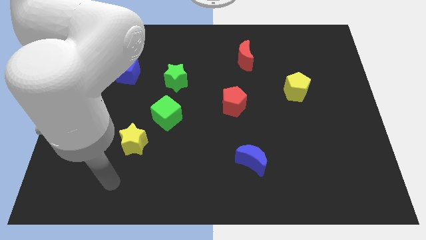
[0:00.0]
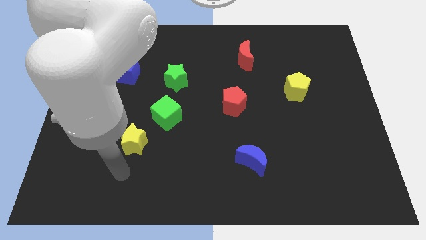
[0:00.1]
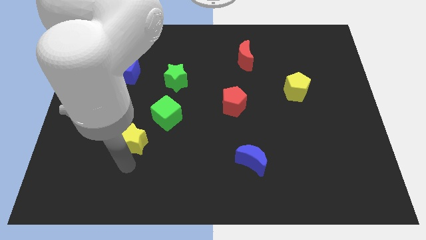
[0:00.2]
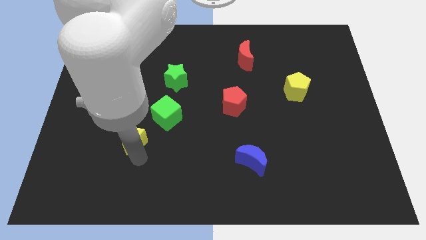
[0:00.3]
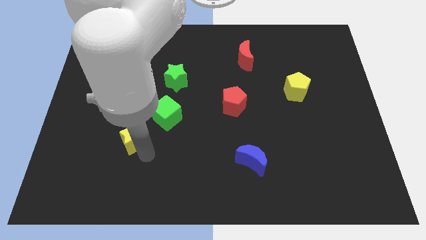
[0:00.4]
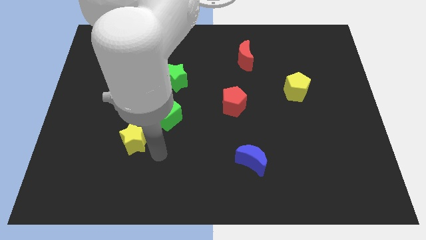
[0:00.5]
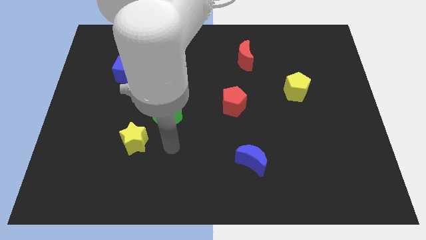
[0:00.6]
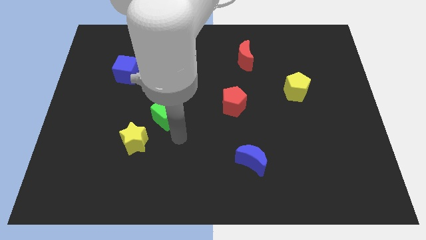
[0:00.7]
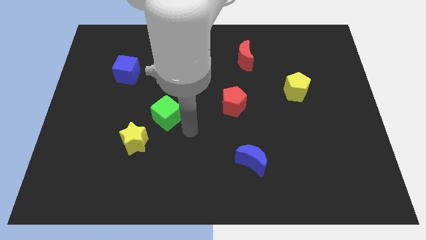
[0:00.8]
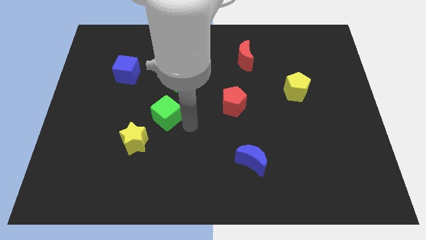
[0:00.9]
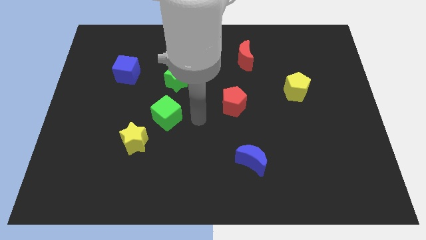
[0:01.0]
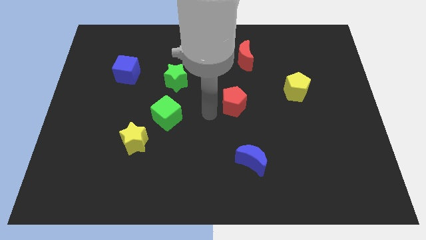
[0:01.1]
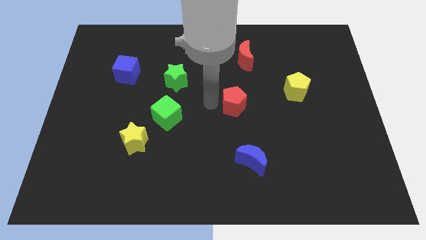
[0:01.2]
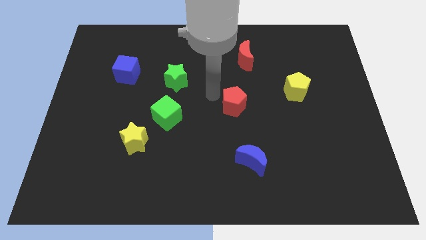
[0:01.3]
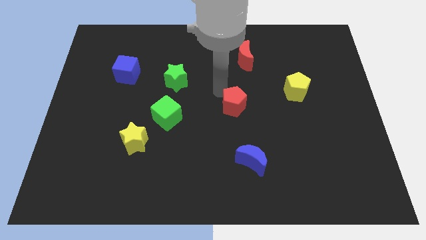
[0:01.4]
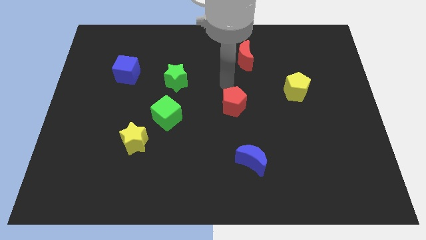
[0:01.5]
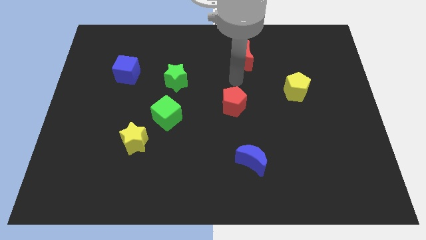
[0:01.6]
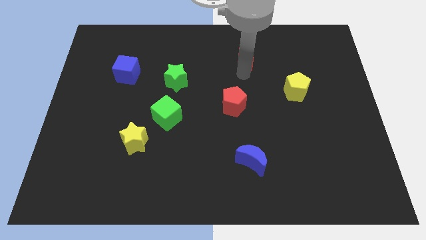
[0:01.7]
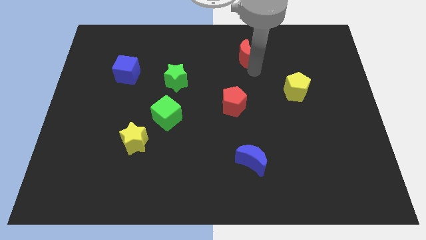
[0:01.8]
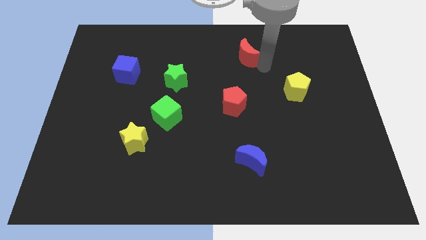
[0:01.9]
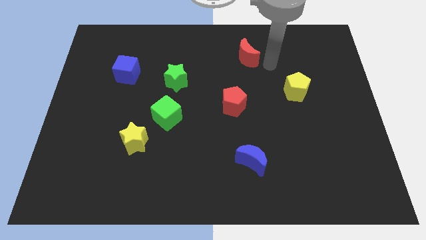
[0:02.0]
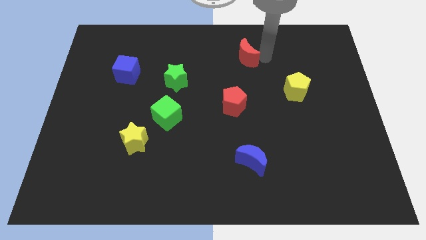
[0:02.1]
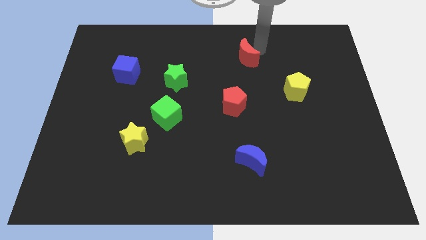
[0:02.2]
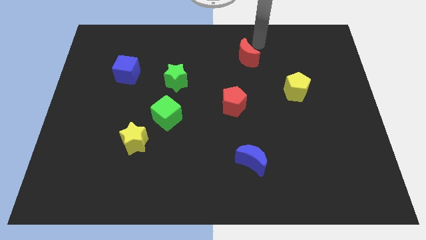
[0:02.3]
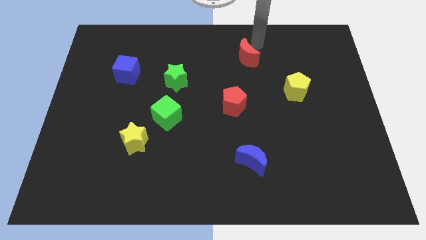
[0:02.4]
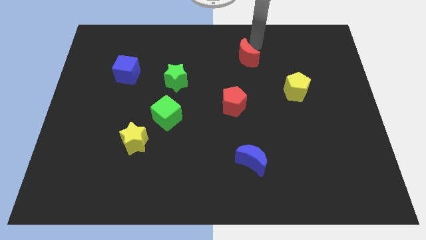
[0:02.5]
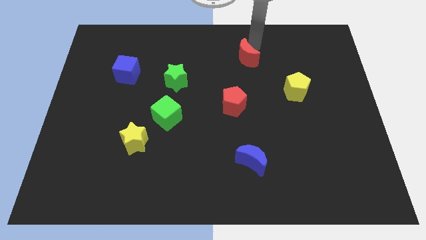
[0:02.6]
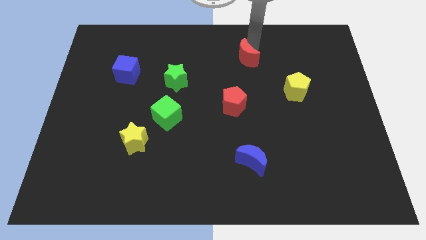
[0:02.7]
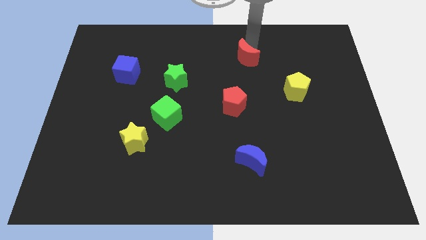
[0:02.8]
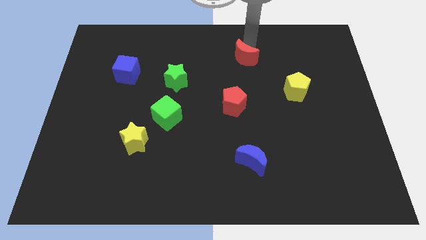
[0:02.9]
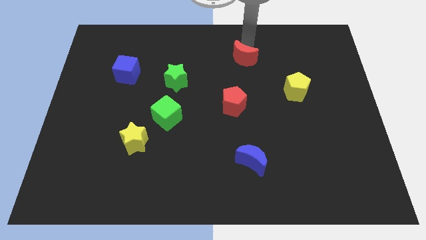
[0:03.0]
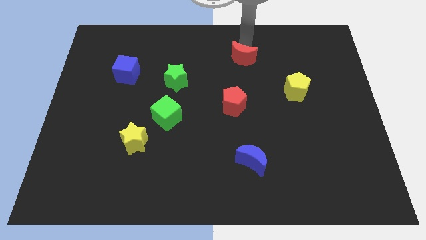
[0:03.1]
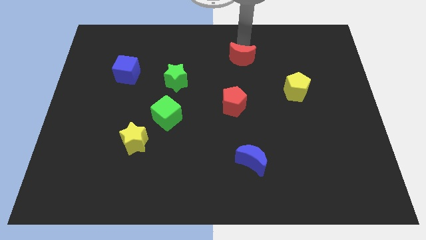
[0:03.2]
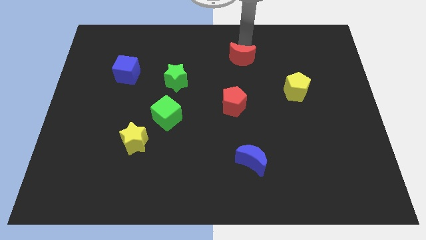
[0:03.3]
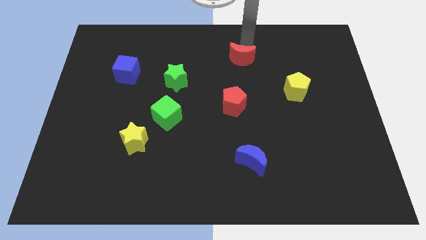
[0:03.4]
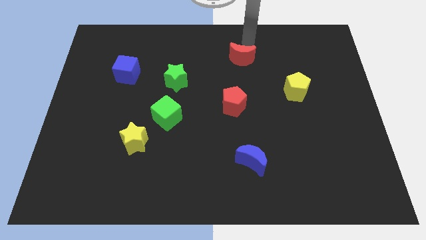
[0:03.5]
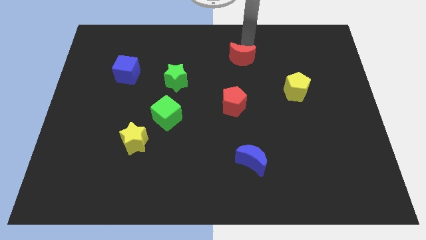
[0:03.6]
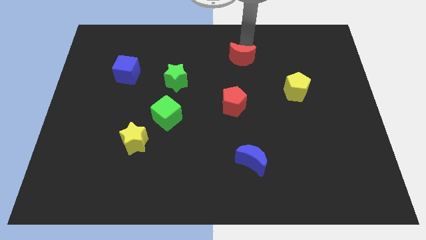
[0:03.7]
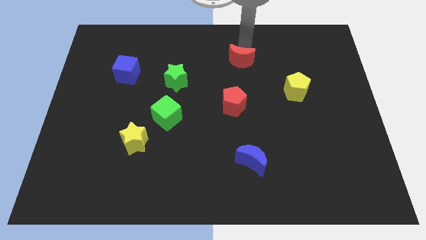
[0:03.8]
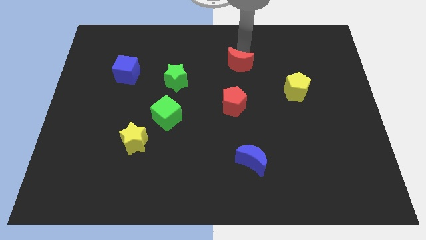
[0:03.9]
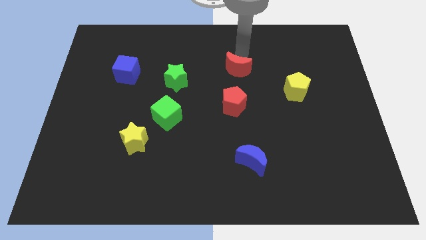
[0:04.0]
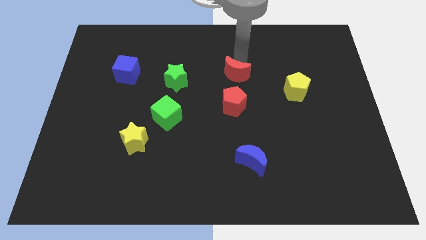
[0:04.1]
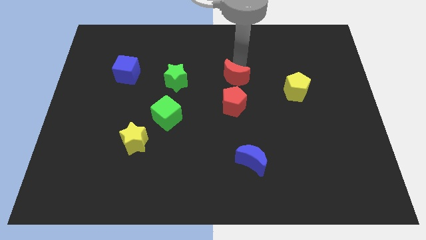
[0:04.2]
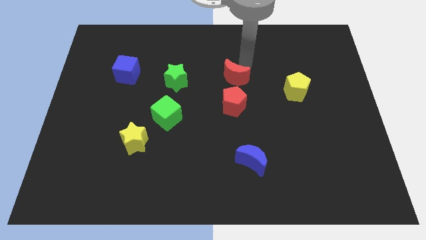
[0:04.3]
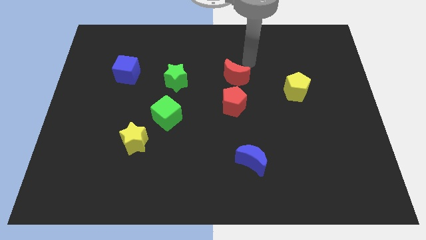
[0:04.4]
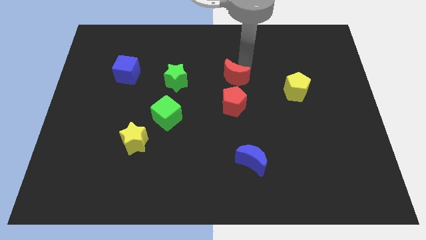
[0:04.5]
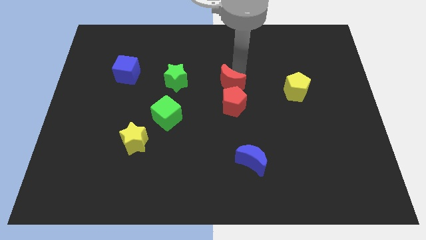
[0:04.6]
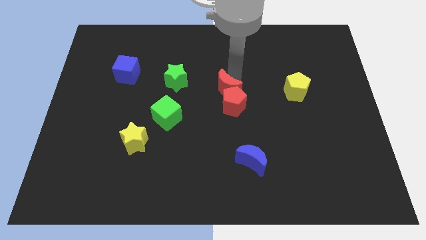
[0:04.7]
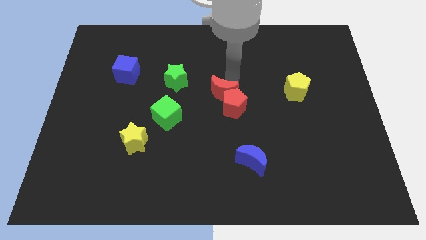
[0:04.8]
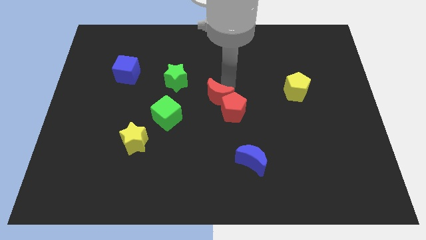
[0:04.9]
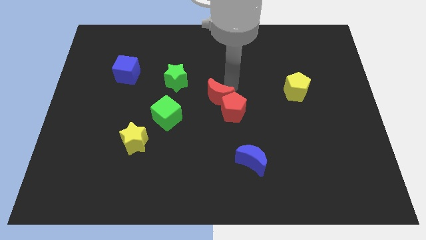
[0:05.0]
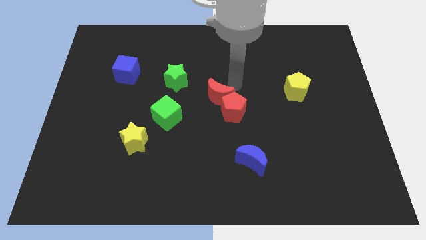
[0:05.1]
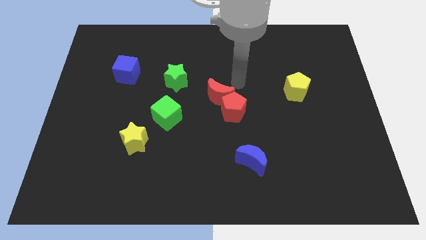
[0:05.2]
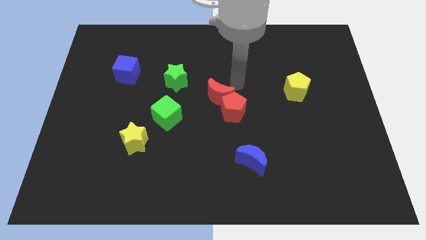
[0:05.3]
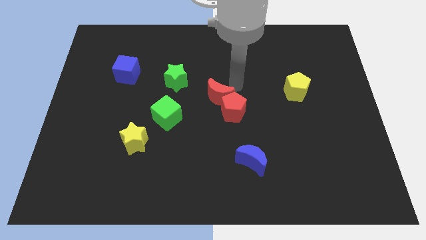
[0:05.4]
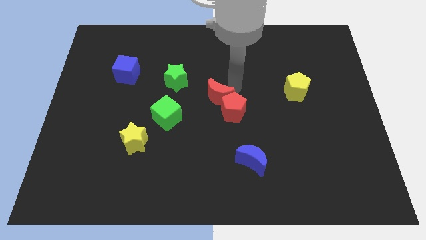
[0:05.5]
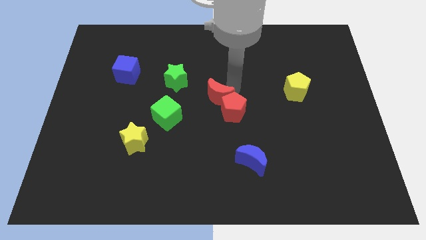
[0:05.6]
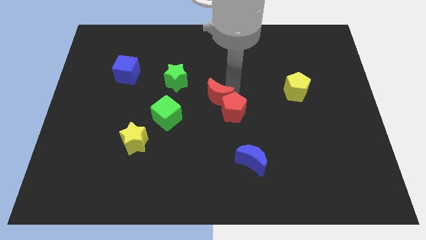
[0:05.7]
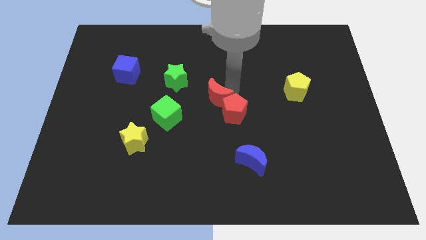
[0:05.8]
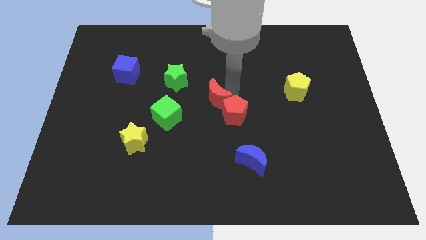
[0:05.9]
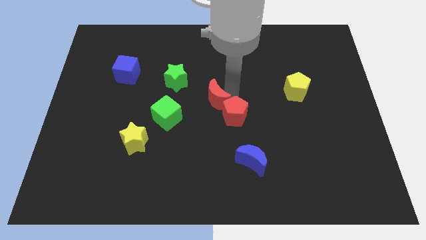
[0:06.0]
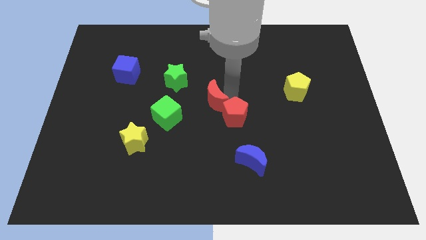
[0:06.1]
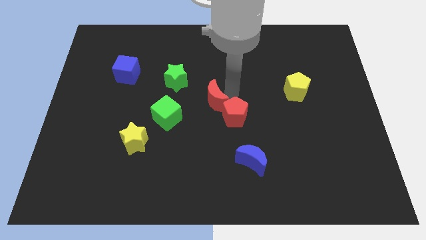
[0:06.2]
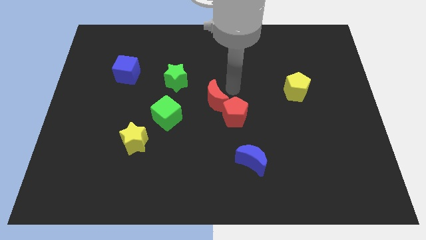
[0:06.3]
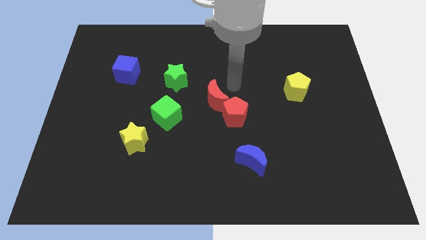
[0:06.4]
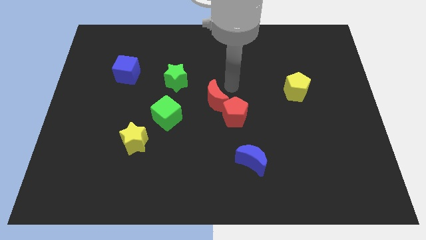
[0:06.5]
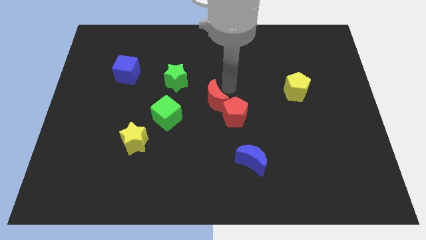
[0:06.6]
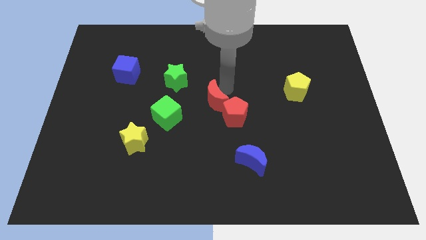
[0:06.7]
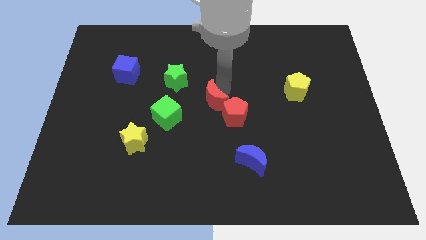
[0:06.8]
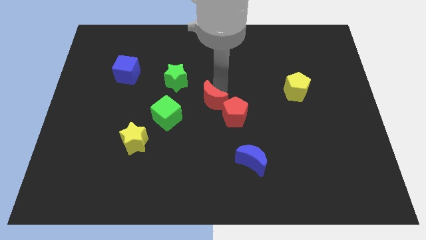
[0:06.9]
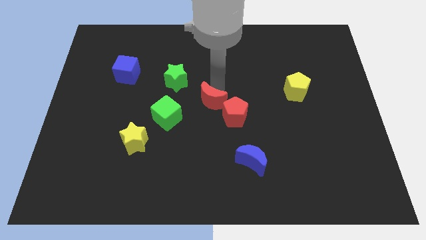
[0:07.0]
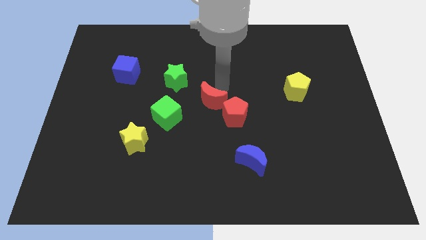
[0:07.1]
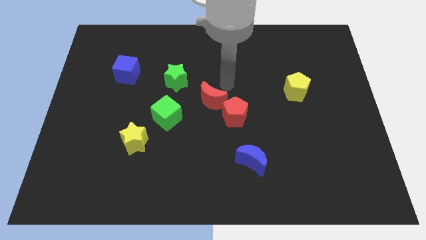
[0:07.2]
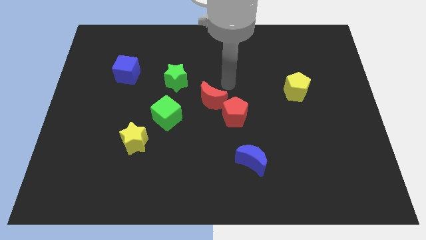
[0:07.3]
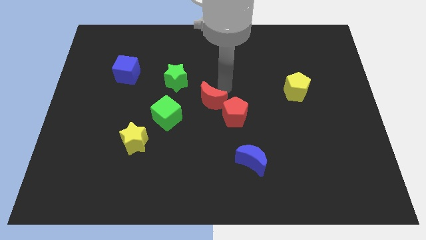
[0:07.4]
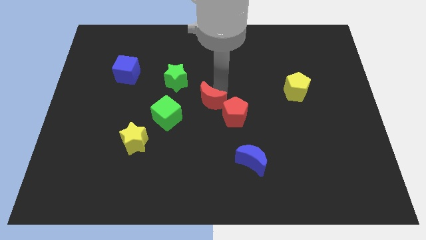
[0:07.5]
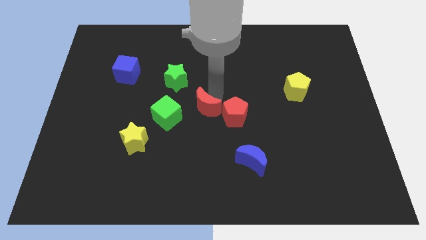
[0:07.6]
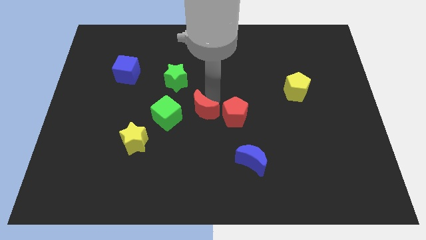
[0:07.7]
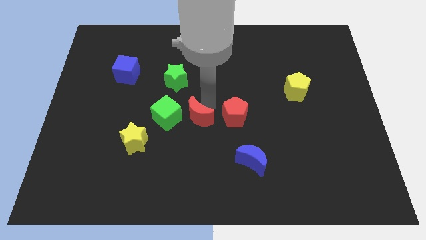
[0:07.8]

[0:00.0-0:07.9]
move the red moon down and then left

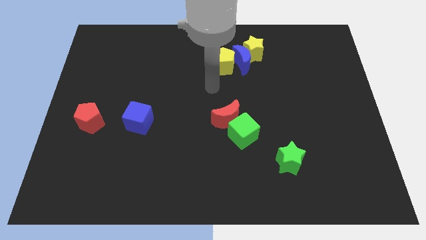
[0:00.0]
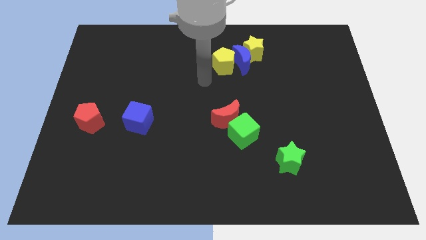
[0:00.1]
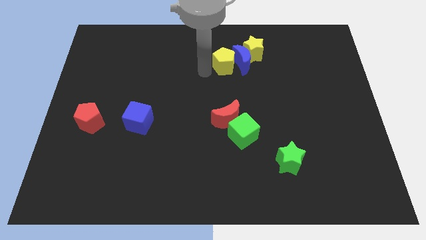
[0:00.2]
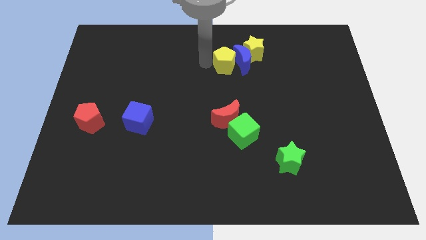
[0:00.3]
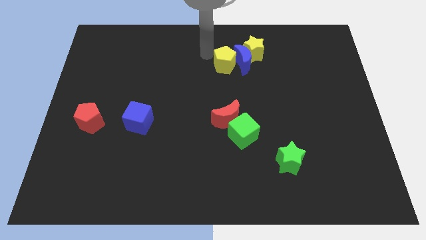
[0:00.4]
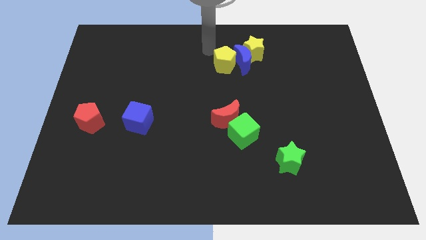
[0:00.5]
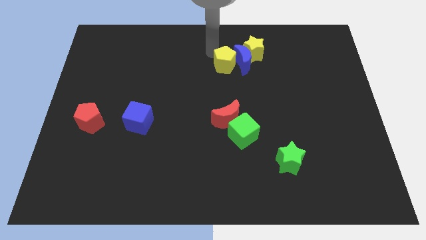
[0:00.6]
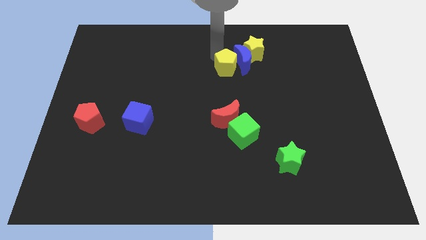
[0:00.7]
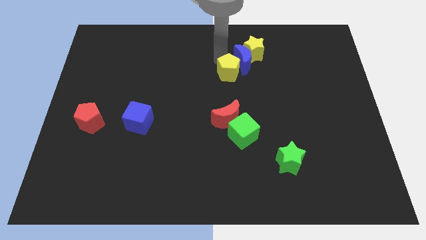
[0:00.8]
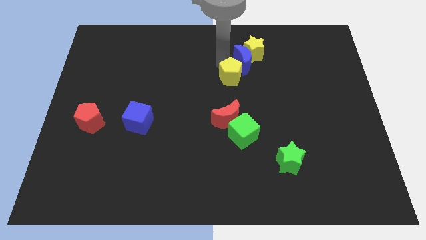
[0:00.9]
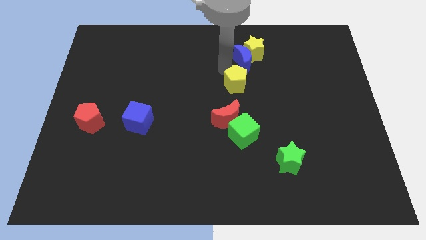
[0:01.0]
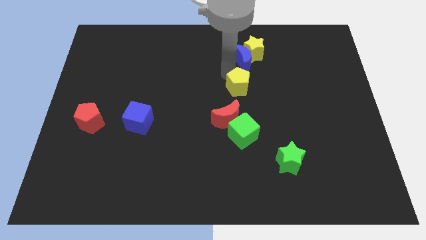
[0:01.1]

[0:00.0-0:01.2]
move the yellow pentagon diagonally down and right somewhat
